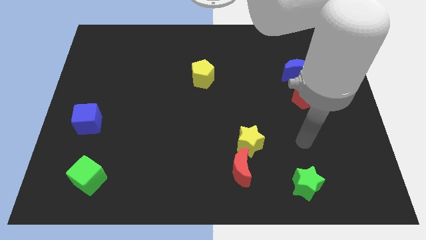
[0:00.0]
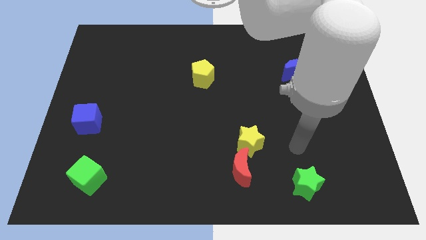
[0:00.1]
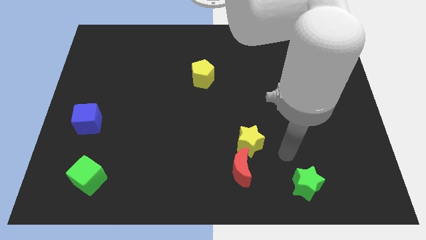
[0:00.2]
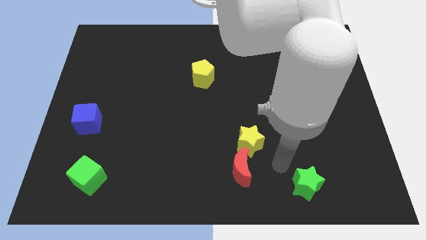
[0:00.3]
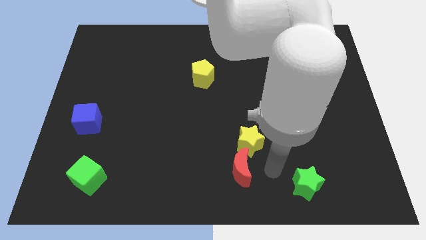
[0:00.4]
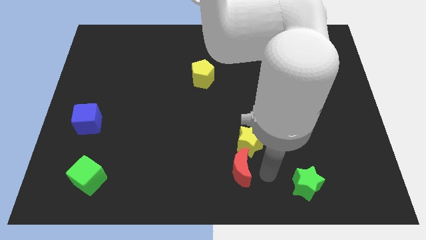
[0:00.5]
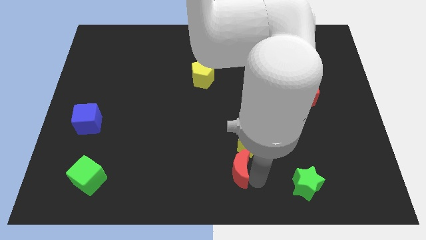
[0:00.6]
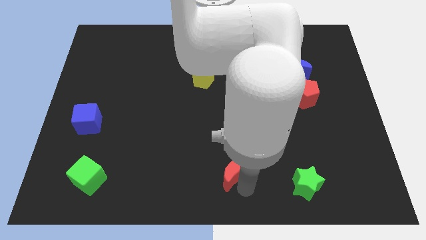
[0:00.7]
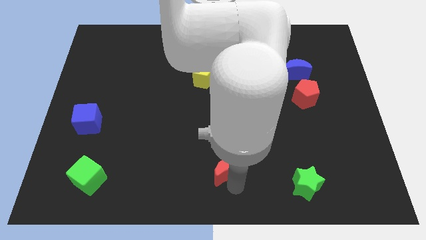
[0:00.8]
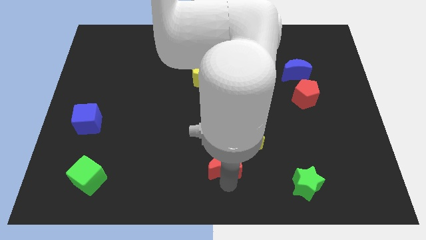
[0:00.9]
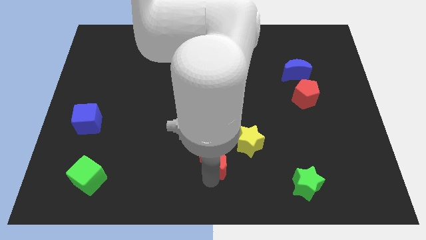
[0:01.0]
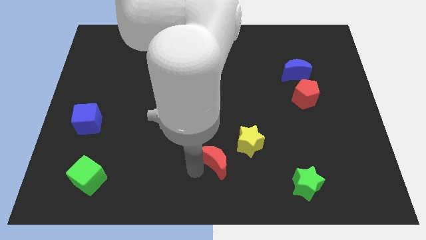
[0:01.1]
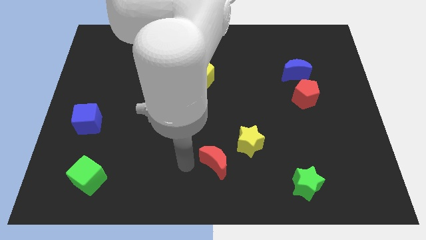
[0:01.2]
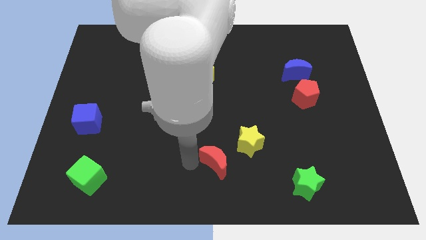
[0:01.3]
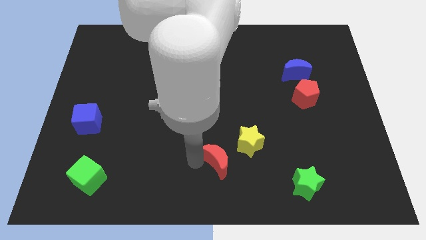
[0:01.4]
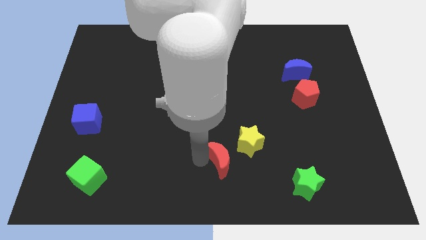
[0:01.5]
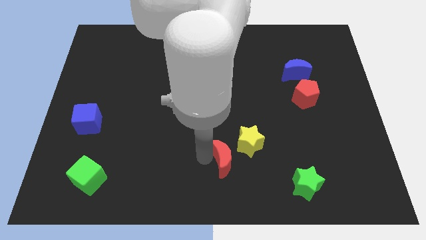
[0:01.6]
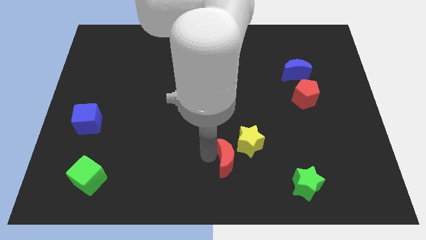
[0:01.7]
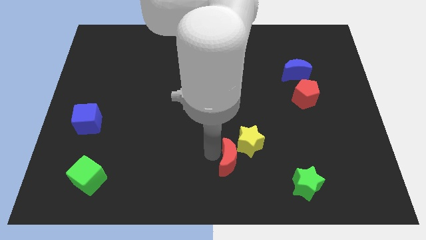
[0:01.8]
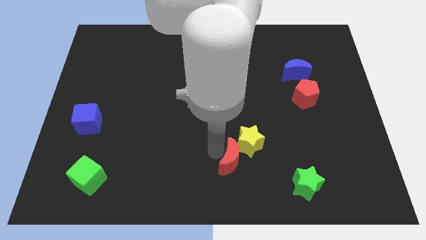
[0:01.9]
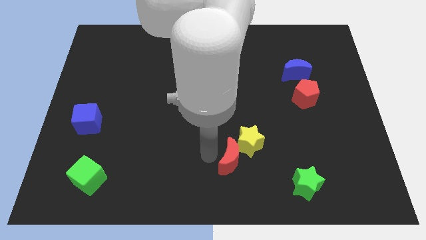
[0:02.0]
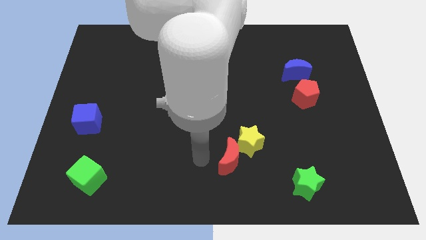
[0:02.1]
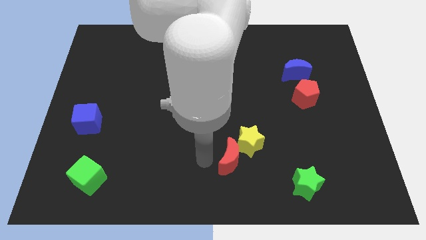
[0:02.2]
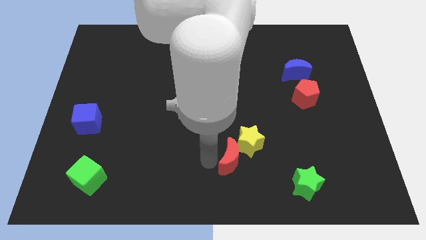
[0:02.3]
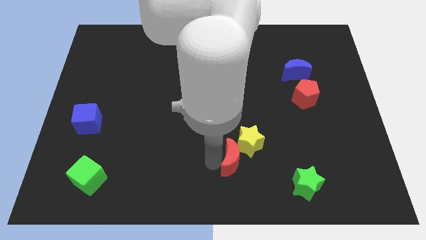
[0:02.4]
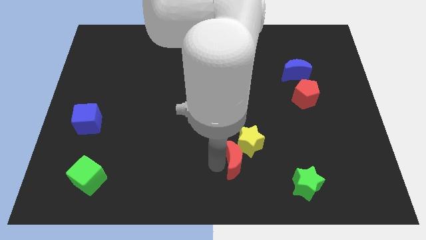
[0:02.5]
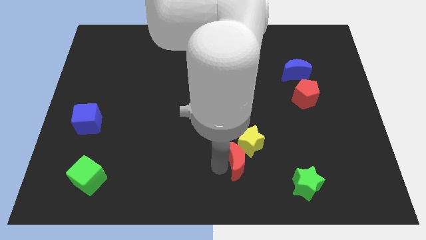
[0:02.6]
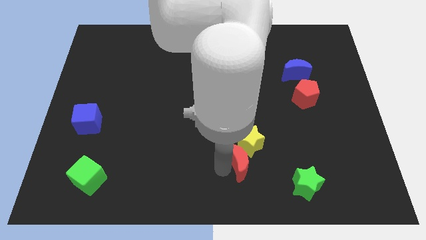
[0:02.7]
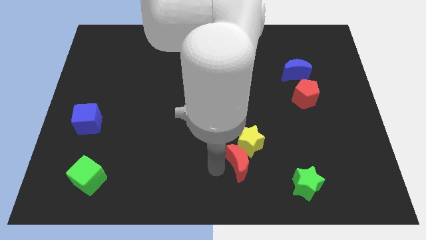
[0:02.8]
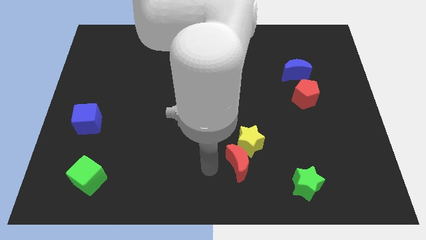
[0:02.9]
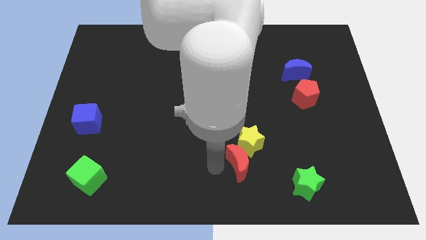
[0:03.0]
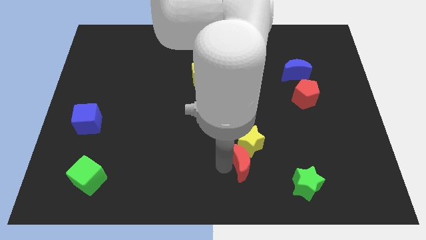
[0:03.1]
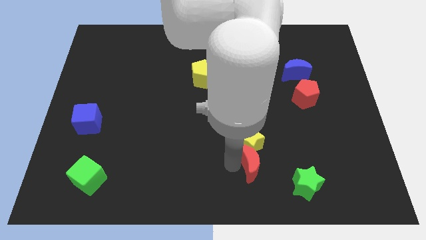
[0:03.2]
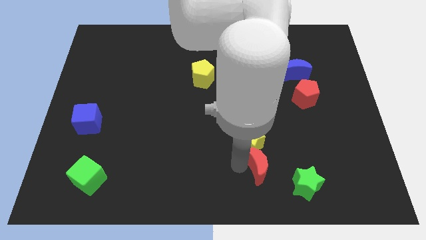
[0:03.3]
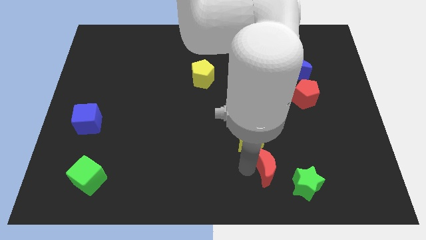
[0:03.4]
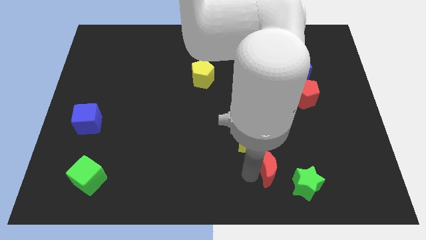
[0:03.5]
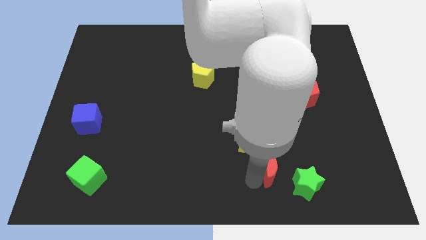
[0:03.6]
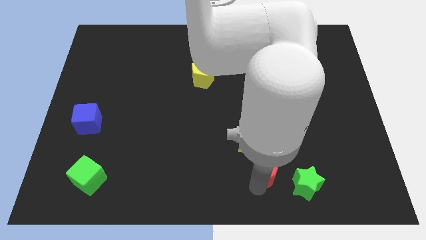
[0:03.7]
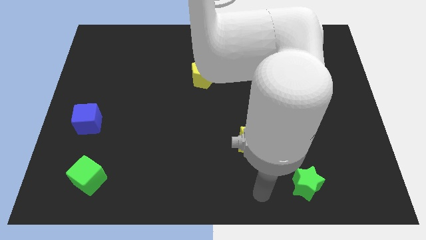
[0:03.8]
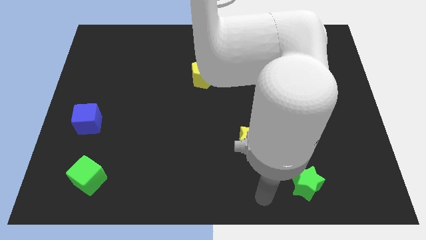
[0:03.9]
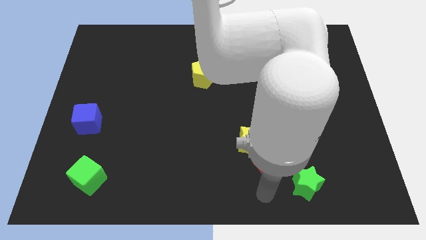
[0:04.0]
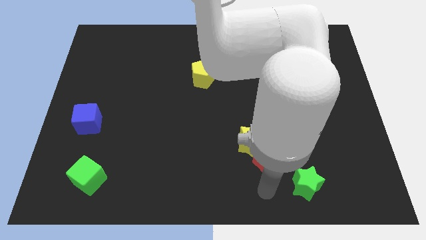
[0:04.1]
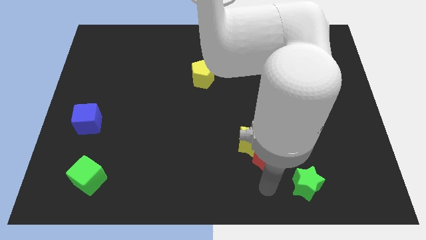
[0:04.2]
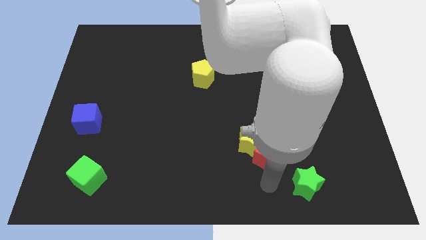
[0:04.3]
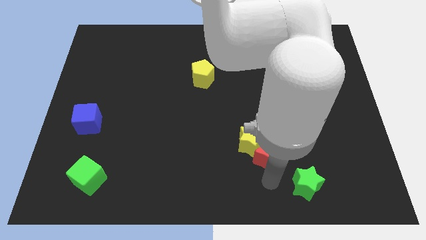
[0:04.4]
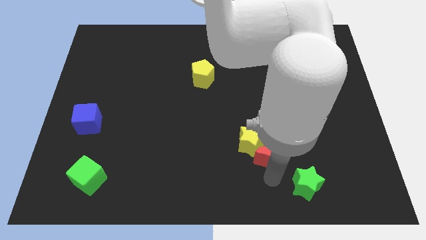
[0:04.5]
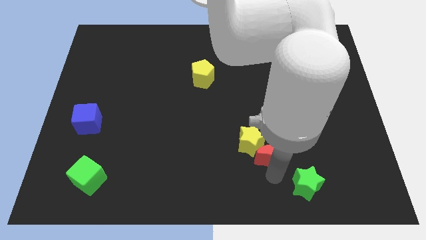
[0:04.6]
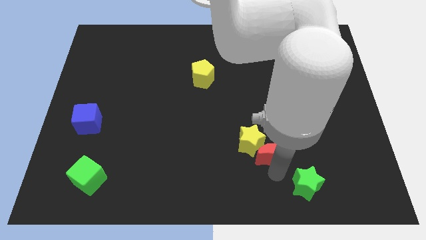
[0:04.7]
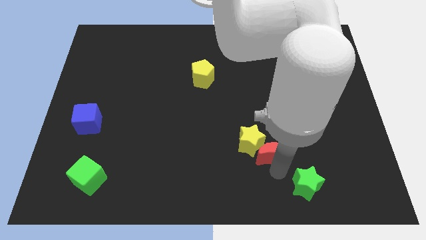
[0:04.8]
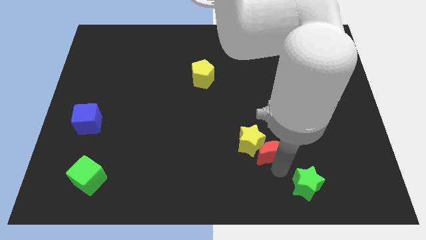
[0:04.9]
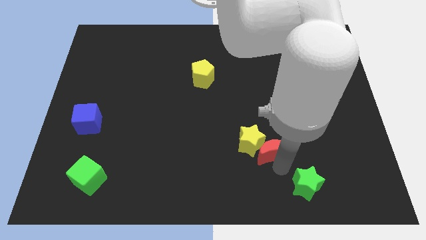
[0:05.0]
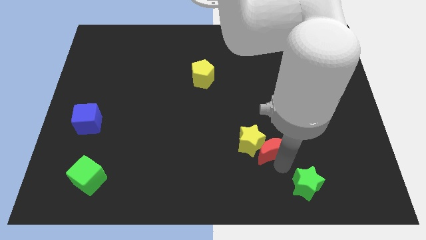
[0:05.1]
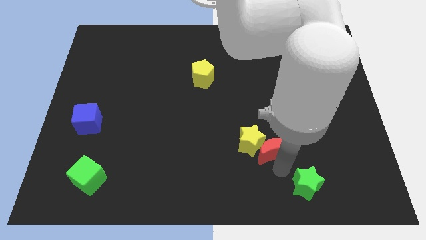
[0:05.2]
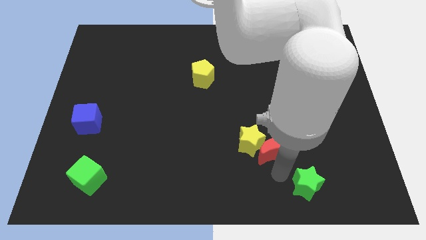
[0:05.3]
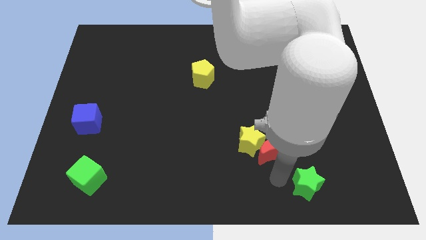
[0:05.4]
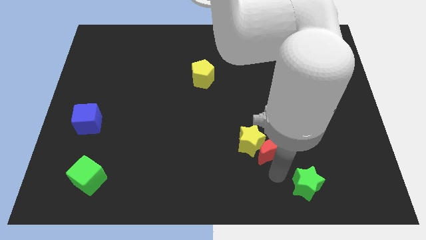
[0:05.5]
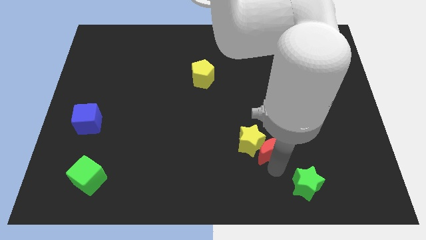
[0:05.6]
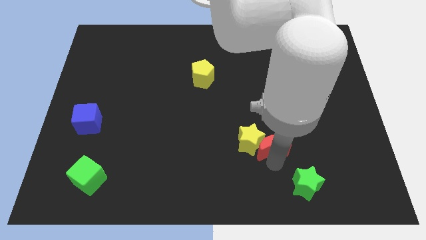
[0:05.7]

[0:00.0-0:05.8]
put the red moon diagonally up and to the right of the yellow star

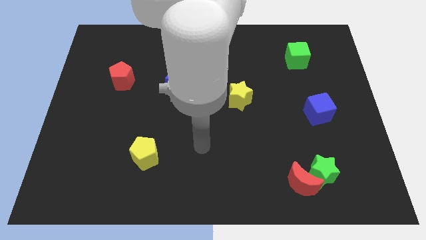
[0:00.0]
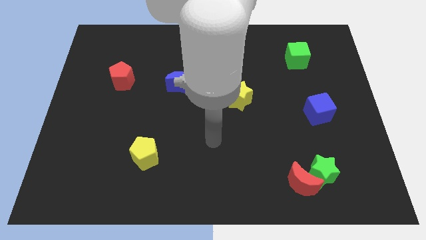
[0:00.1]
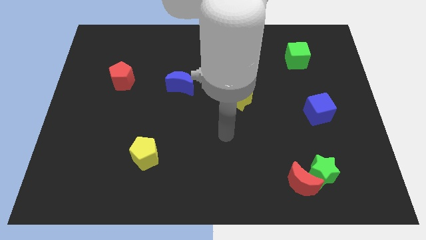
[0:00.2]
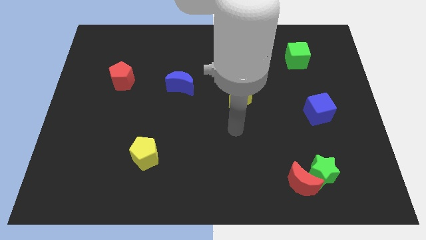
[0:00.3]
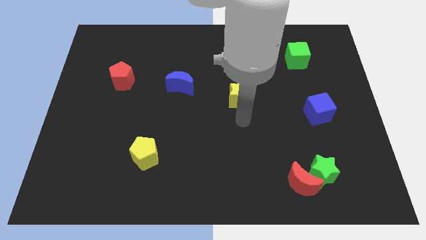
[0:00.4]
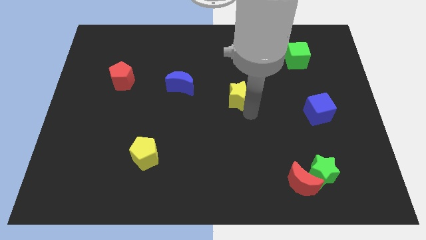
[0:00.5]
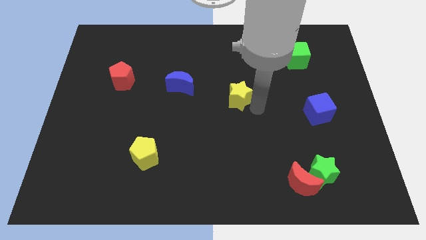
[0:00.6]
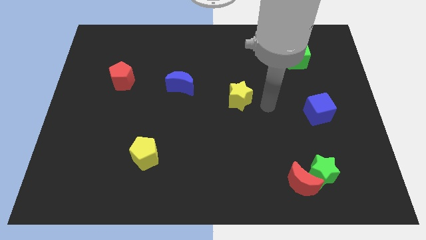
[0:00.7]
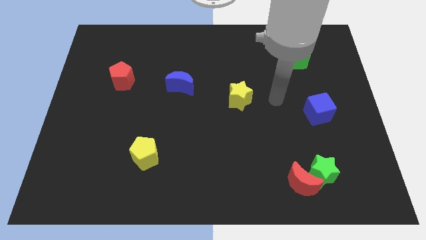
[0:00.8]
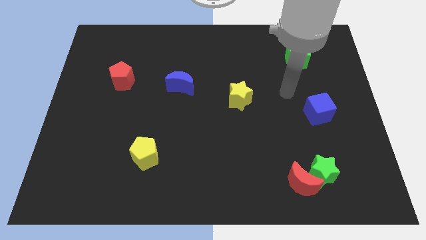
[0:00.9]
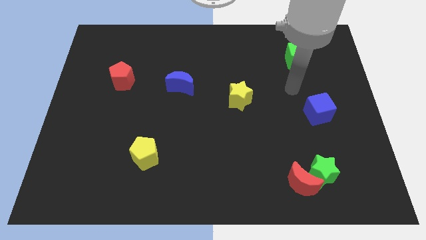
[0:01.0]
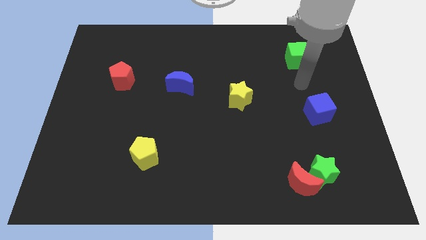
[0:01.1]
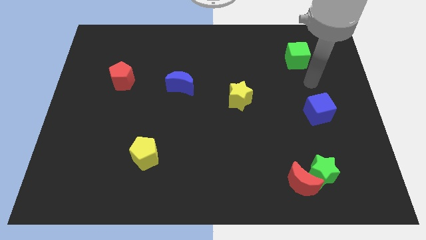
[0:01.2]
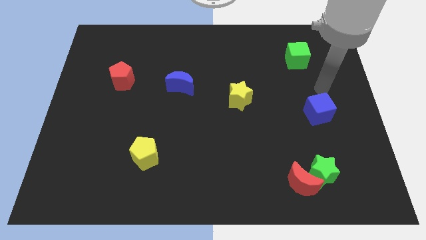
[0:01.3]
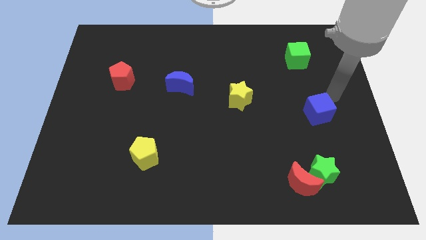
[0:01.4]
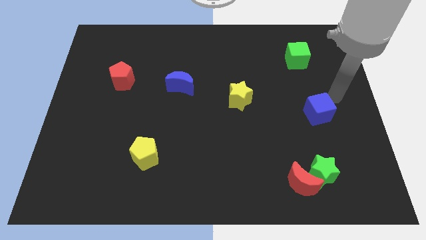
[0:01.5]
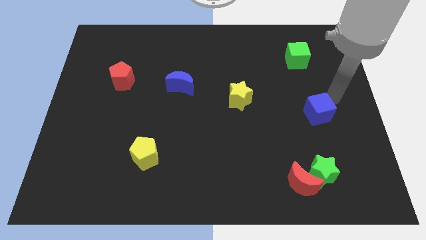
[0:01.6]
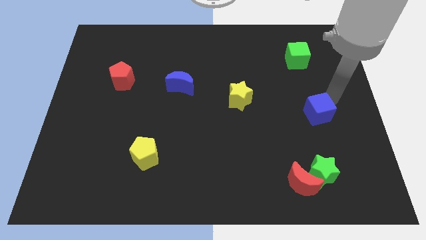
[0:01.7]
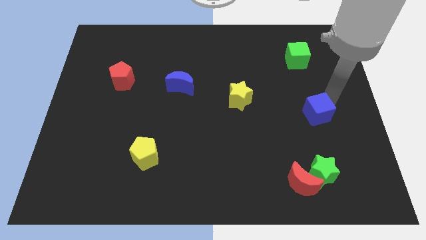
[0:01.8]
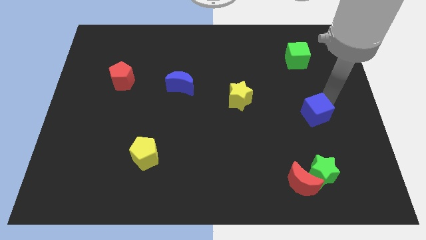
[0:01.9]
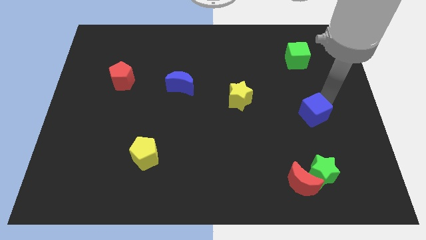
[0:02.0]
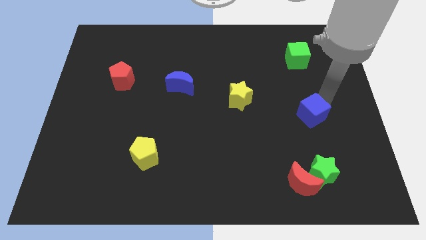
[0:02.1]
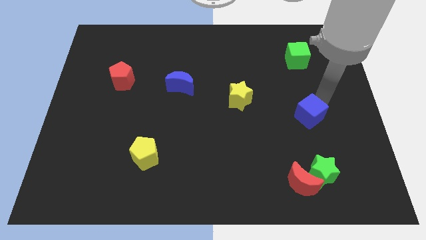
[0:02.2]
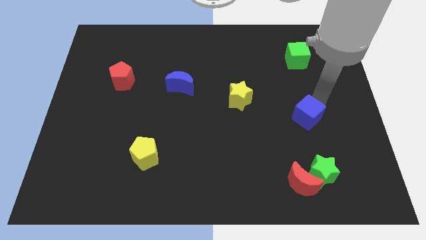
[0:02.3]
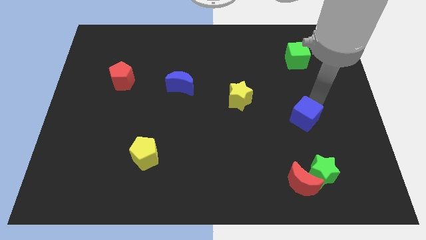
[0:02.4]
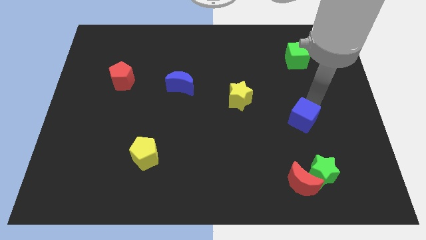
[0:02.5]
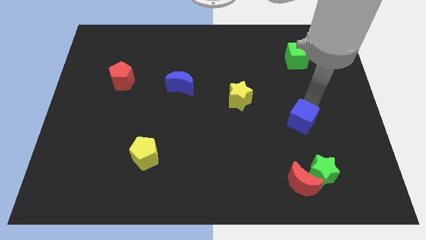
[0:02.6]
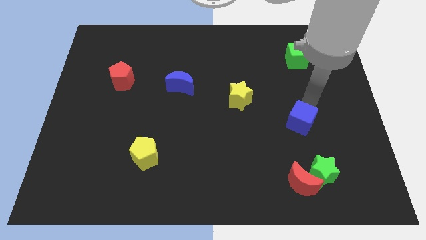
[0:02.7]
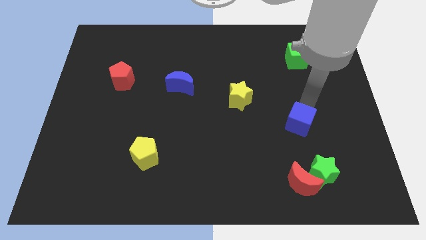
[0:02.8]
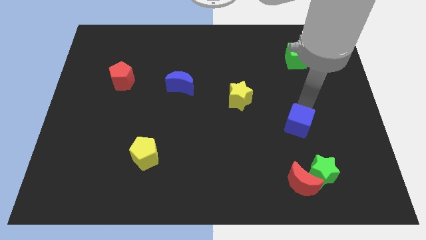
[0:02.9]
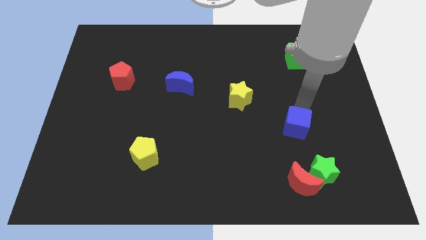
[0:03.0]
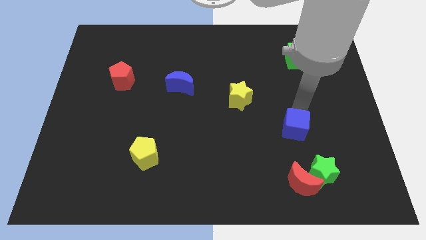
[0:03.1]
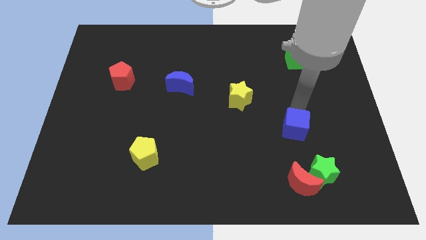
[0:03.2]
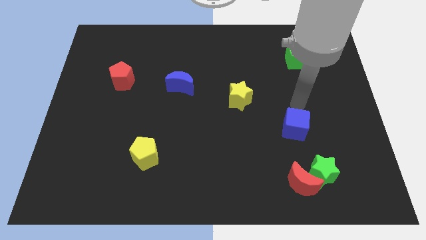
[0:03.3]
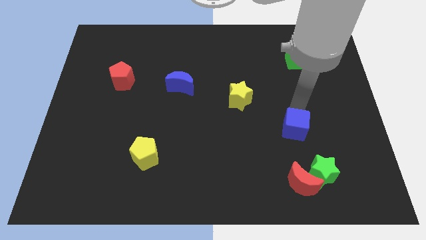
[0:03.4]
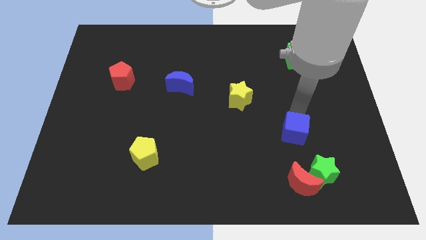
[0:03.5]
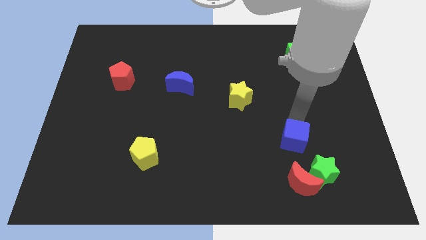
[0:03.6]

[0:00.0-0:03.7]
push the blue cube diagonally up and to the left of the green star
